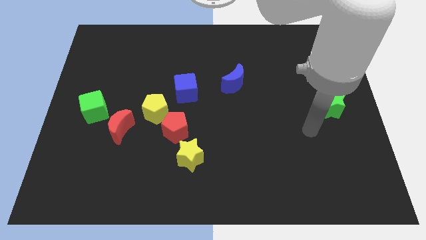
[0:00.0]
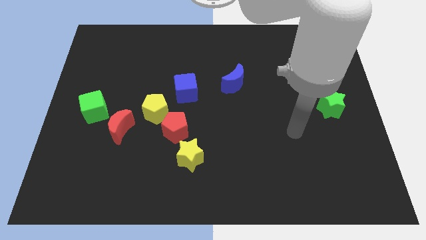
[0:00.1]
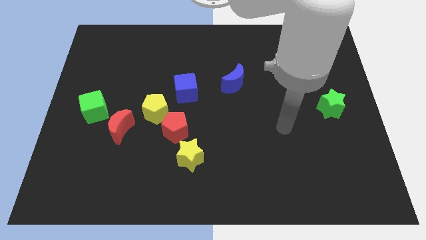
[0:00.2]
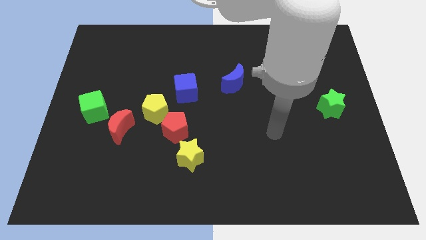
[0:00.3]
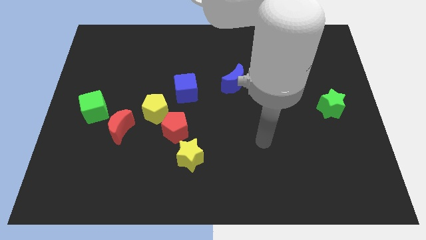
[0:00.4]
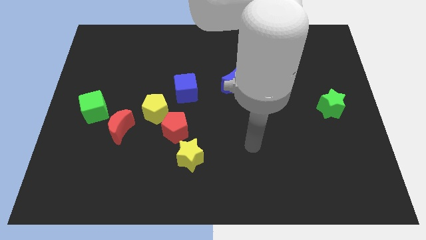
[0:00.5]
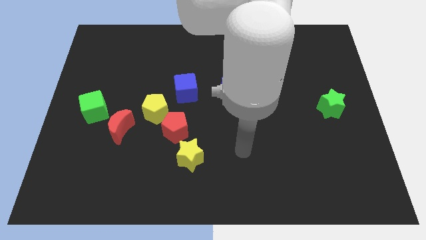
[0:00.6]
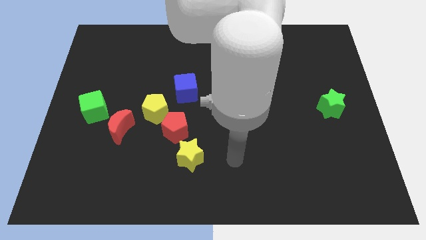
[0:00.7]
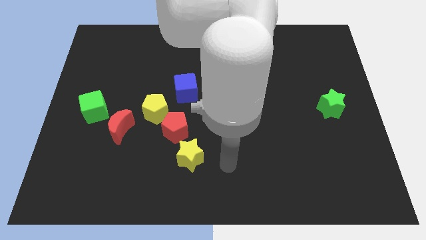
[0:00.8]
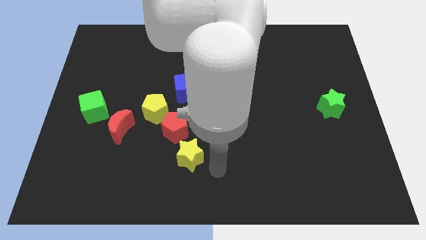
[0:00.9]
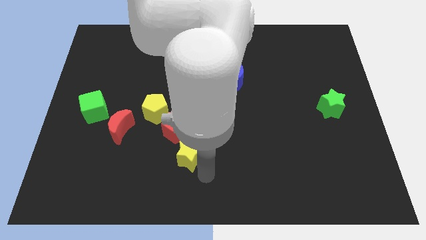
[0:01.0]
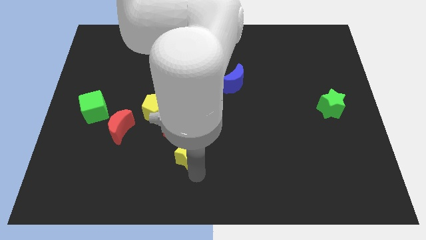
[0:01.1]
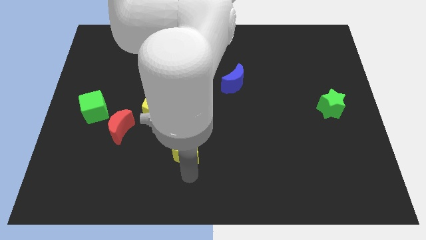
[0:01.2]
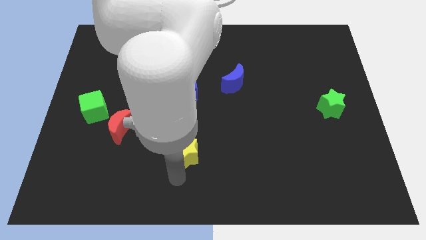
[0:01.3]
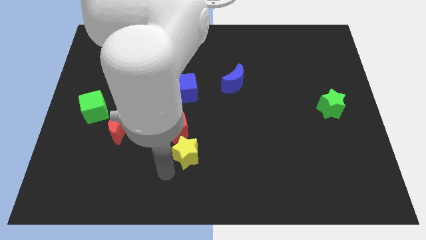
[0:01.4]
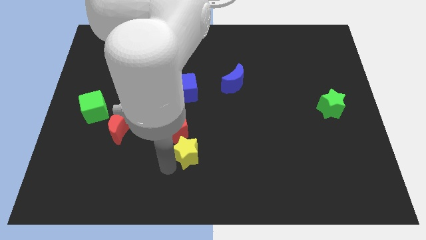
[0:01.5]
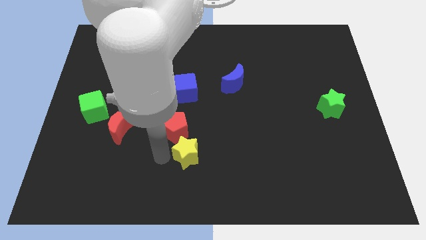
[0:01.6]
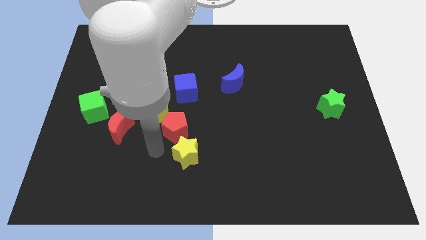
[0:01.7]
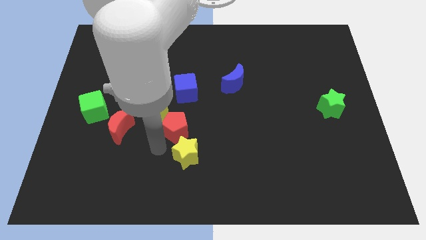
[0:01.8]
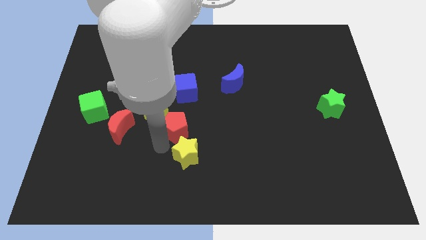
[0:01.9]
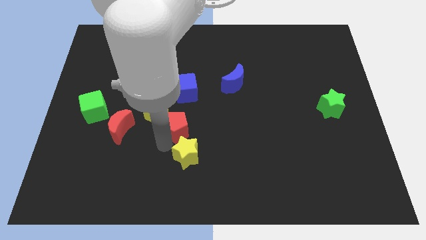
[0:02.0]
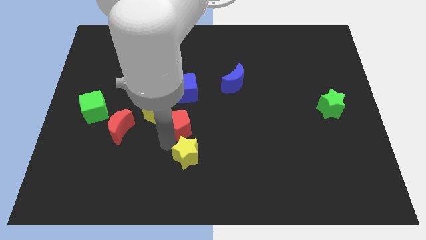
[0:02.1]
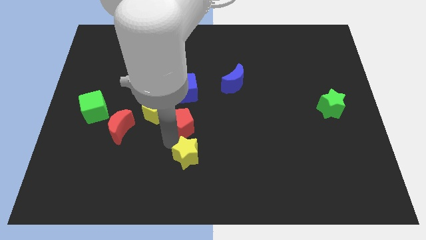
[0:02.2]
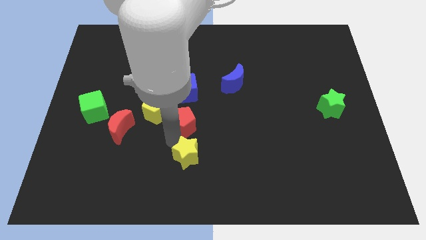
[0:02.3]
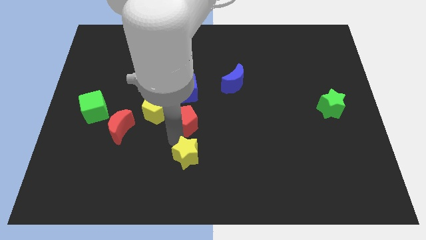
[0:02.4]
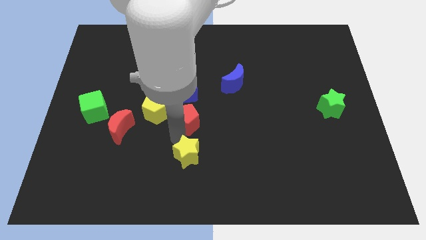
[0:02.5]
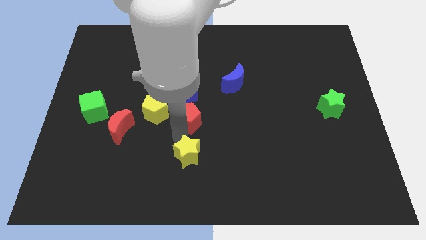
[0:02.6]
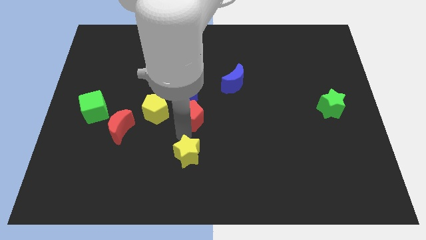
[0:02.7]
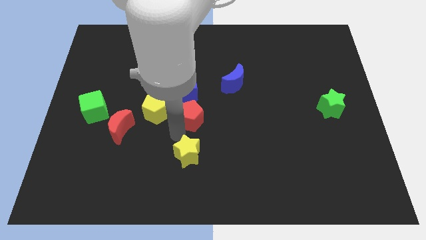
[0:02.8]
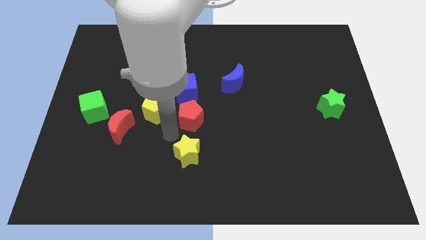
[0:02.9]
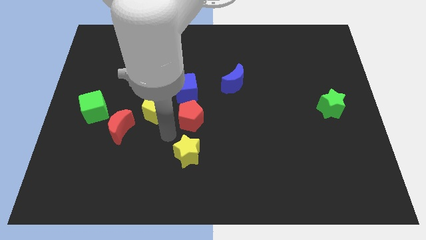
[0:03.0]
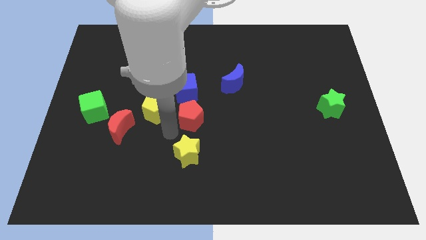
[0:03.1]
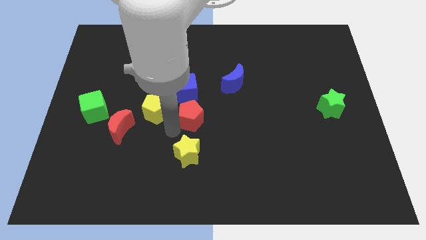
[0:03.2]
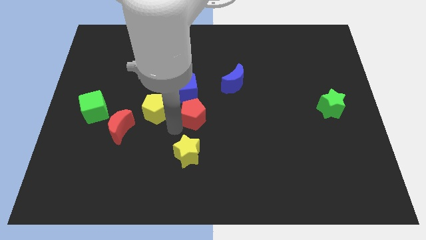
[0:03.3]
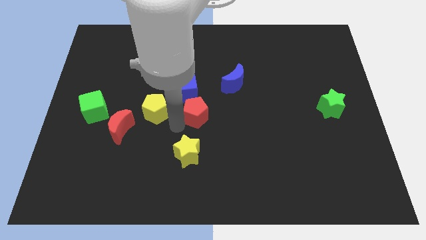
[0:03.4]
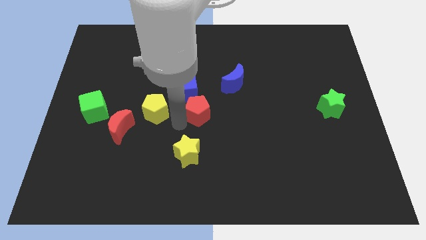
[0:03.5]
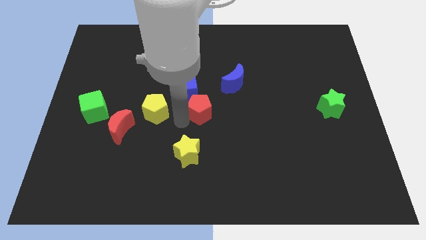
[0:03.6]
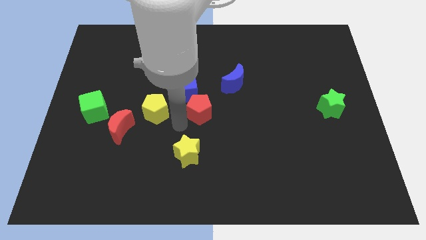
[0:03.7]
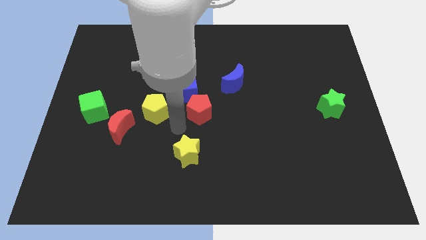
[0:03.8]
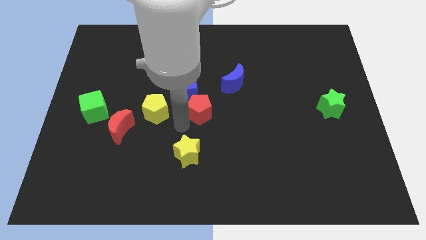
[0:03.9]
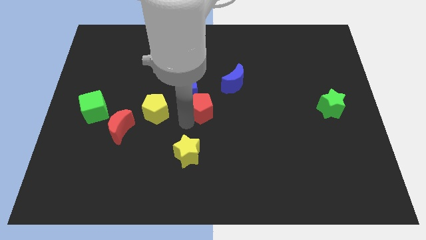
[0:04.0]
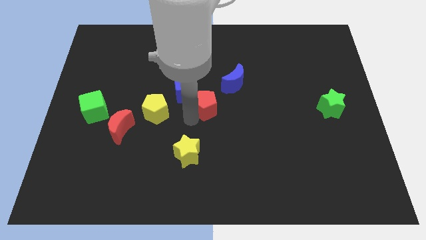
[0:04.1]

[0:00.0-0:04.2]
separate the red pentagon from the yellow pentagon and yellow star

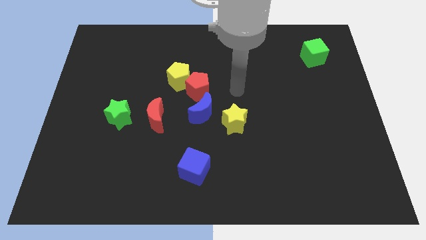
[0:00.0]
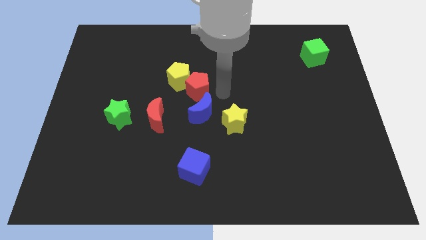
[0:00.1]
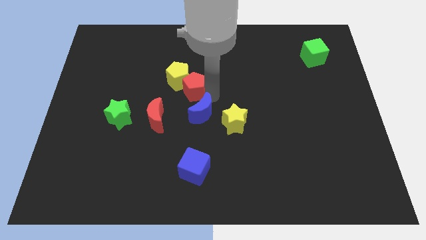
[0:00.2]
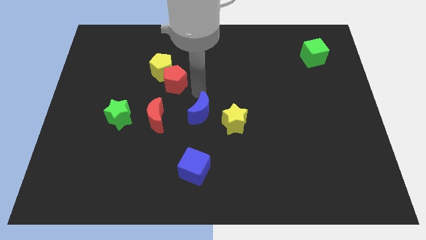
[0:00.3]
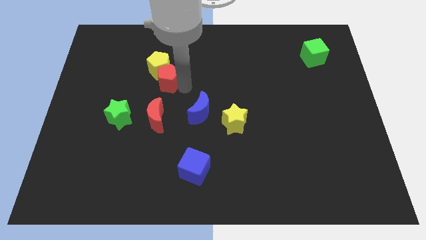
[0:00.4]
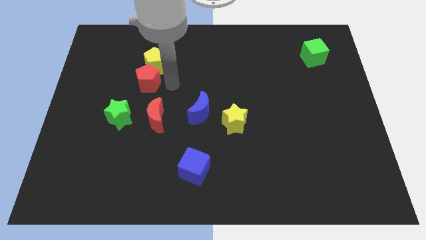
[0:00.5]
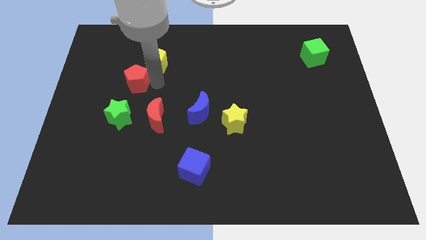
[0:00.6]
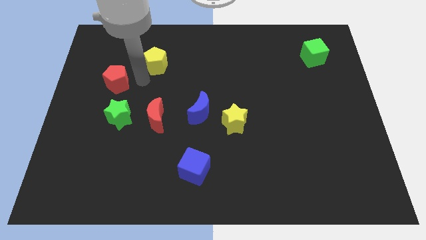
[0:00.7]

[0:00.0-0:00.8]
separate the yellow pentagon from the red pentagon

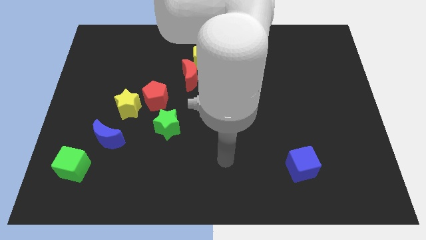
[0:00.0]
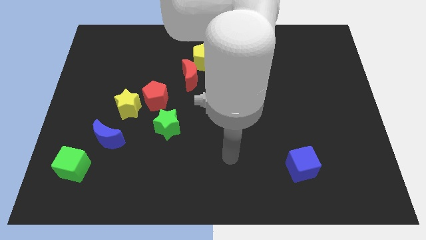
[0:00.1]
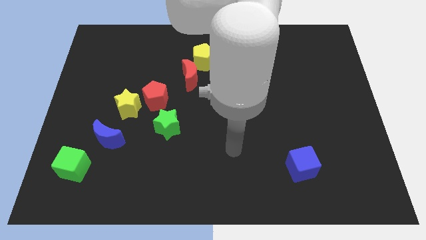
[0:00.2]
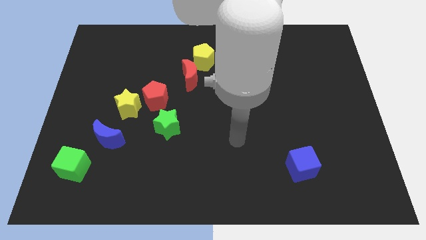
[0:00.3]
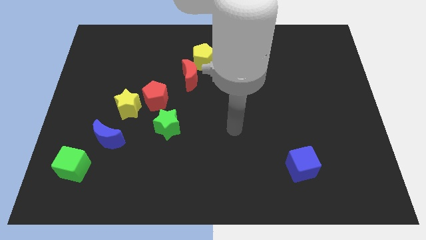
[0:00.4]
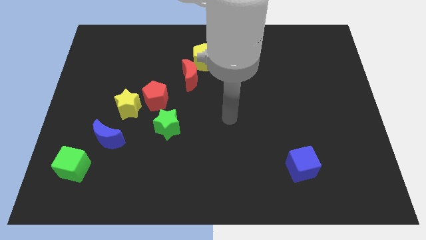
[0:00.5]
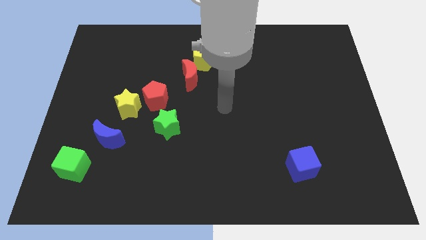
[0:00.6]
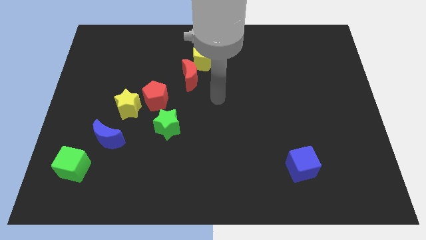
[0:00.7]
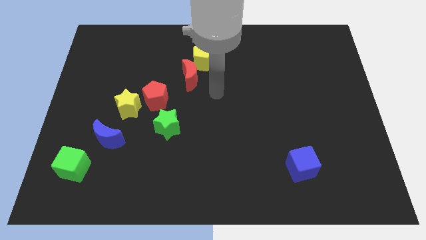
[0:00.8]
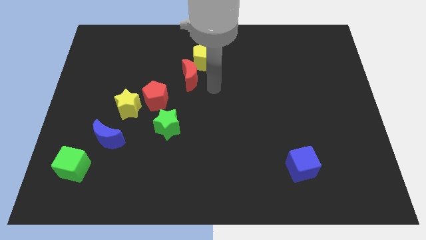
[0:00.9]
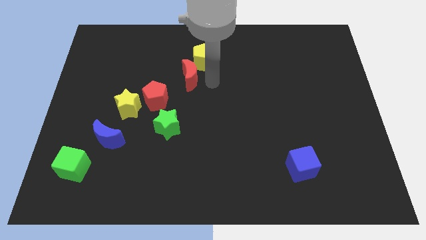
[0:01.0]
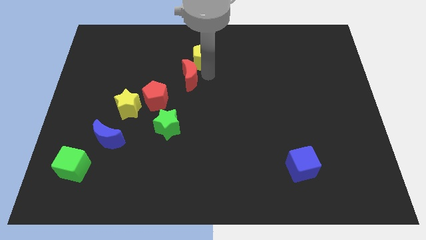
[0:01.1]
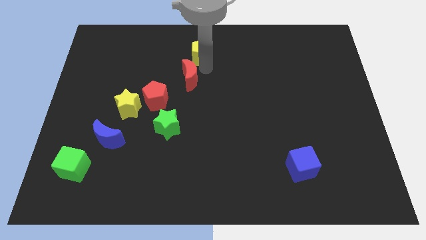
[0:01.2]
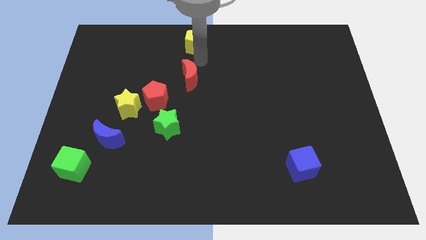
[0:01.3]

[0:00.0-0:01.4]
pull the red moon apart from the yellow pentagon

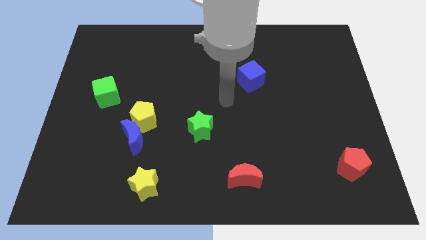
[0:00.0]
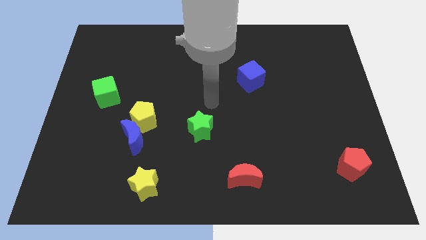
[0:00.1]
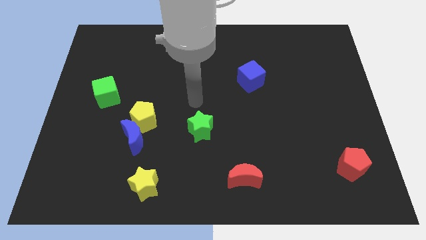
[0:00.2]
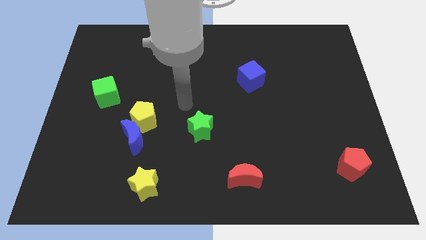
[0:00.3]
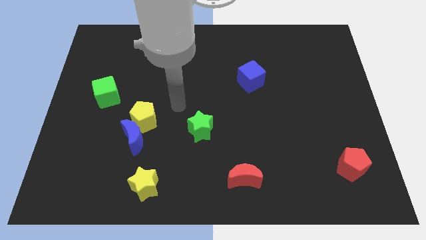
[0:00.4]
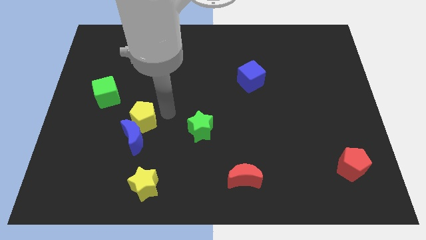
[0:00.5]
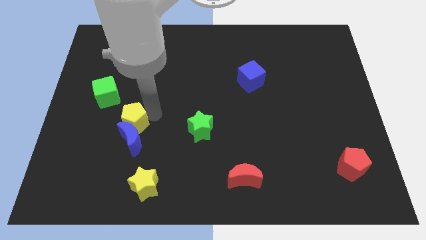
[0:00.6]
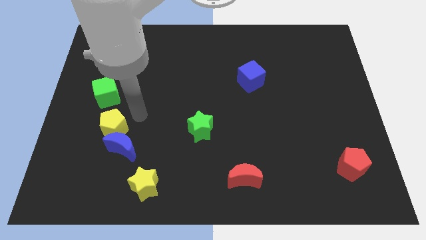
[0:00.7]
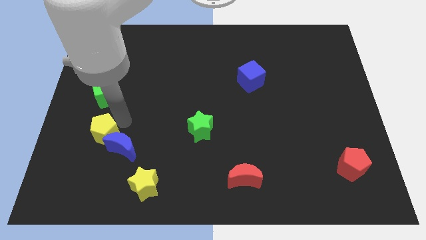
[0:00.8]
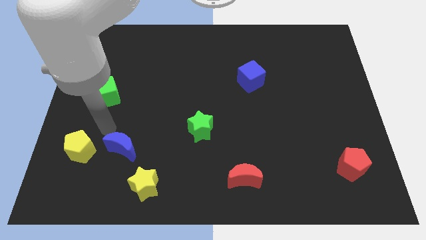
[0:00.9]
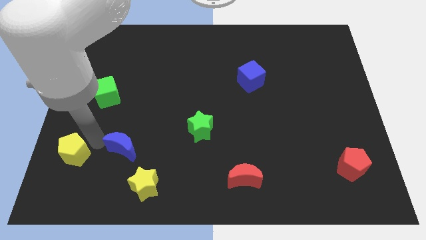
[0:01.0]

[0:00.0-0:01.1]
pull the blue moon apart from the yellow pentagon

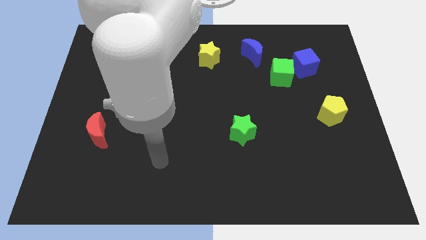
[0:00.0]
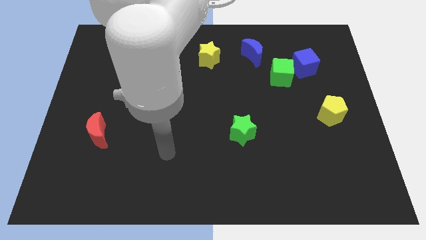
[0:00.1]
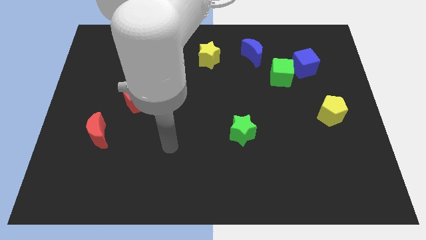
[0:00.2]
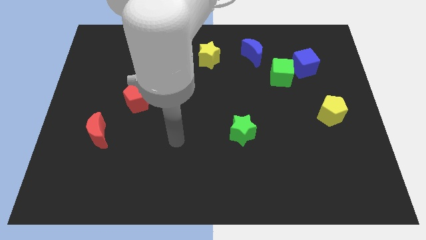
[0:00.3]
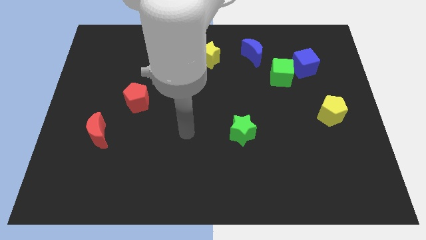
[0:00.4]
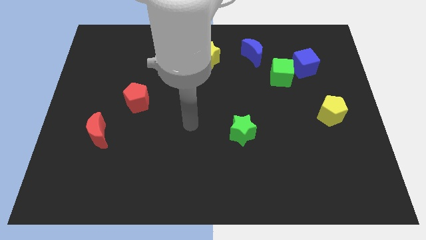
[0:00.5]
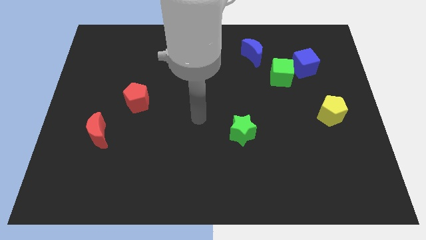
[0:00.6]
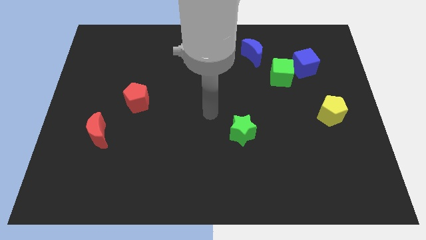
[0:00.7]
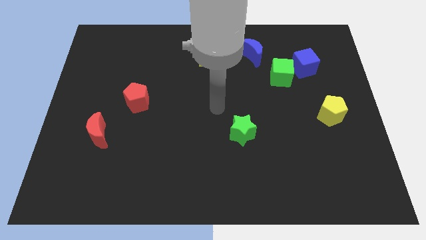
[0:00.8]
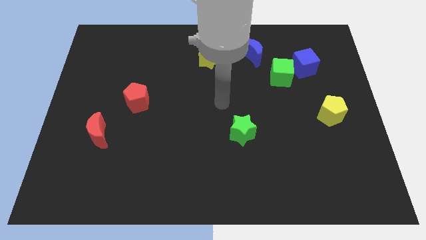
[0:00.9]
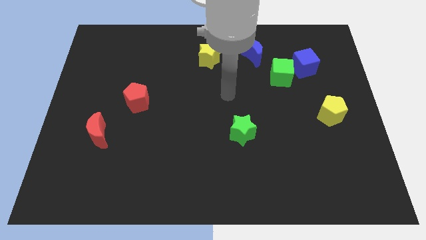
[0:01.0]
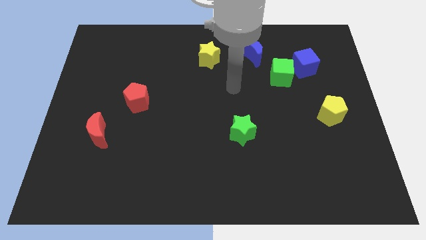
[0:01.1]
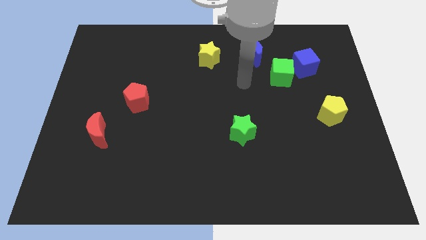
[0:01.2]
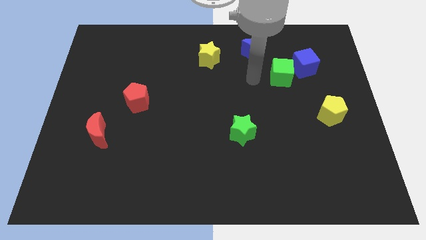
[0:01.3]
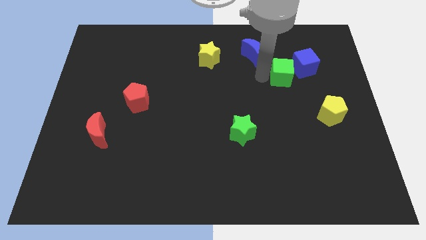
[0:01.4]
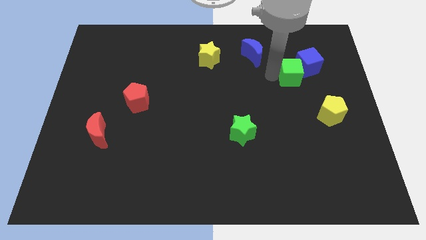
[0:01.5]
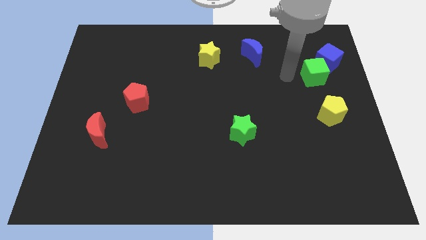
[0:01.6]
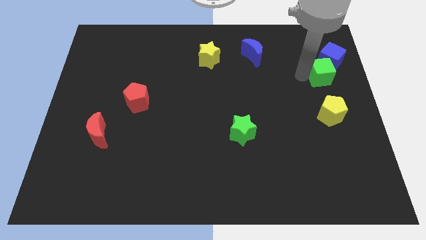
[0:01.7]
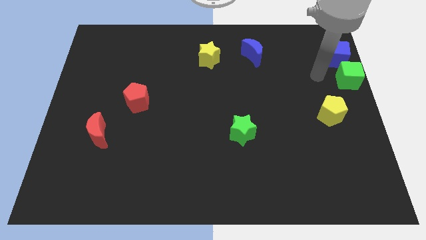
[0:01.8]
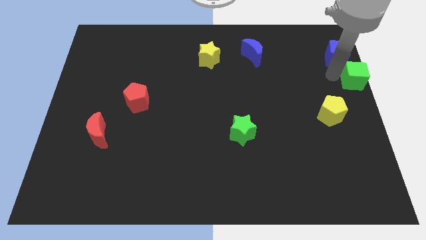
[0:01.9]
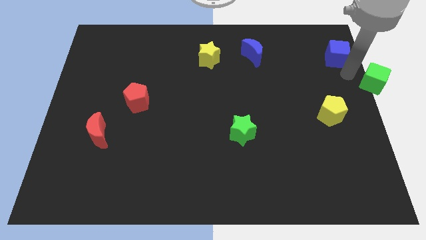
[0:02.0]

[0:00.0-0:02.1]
pull the blue cube apart from the green cube
